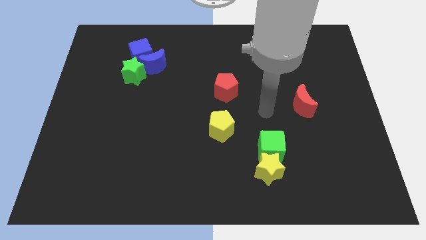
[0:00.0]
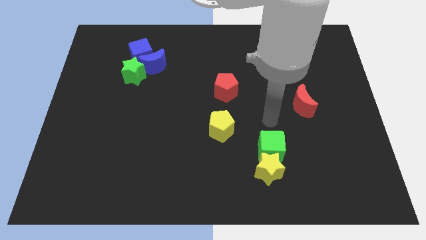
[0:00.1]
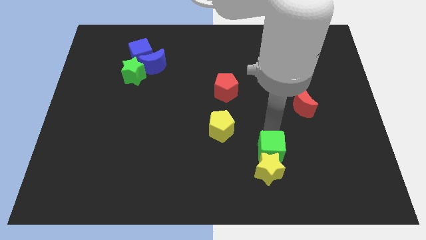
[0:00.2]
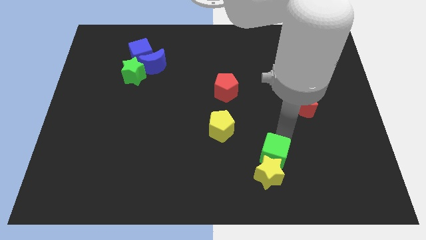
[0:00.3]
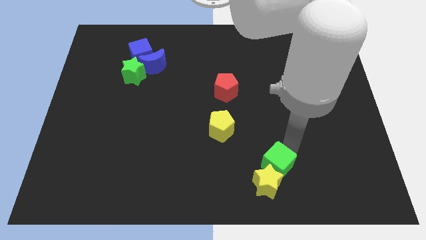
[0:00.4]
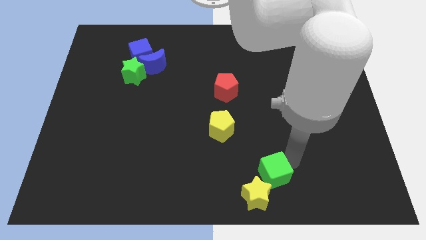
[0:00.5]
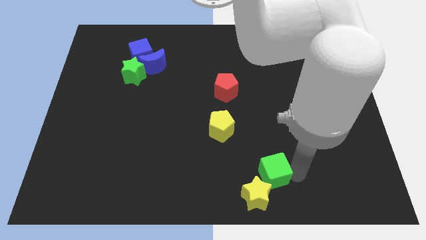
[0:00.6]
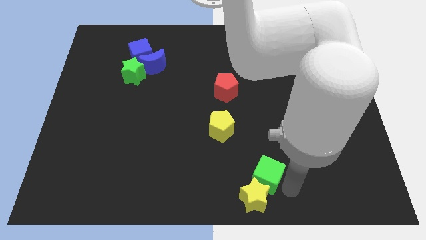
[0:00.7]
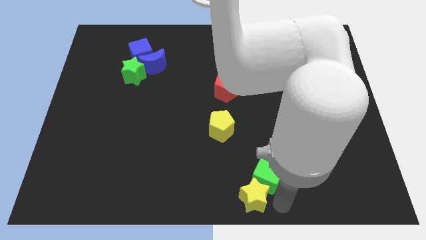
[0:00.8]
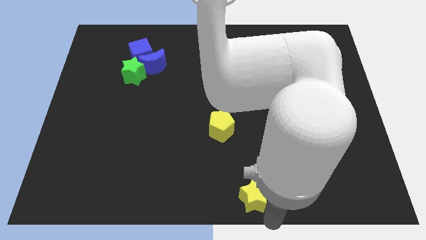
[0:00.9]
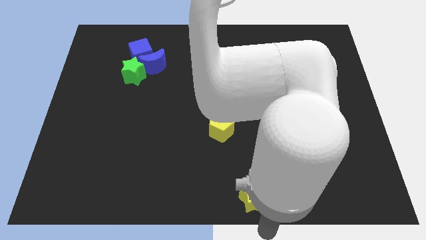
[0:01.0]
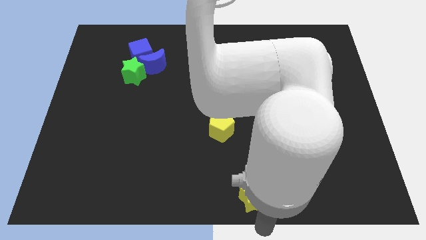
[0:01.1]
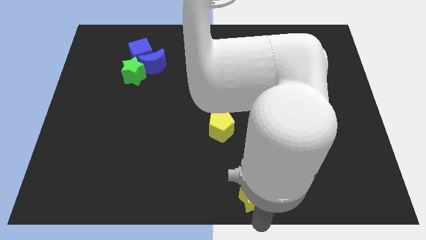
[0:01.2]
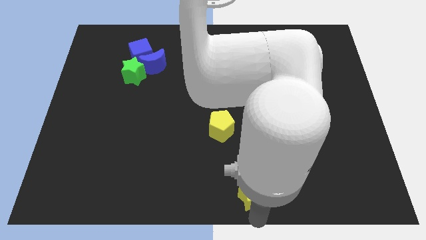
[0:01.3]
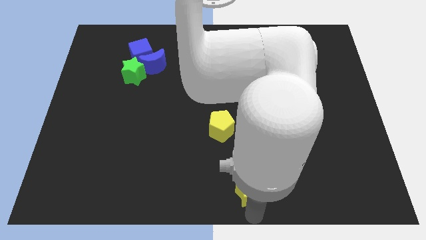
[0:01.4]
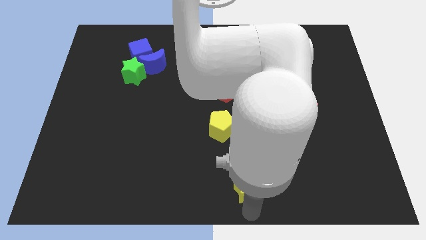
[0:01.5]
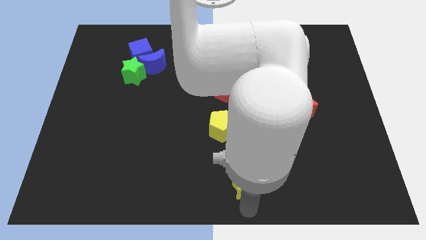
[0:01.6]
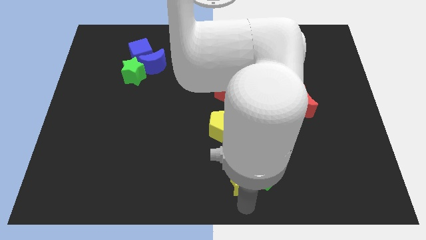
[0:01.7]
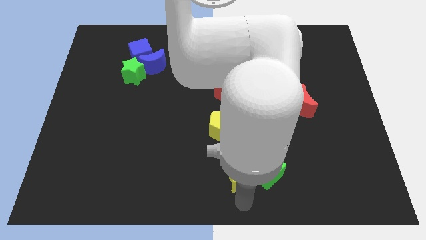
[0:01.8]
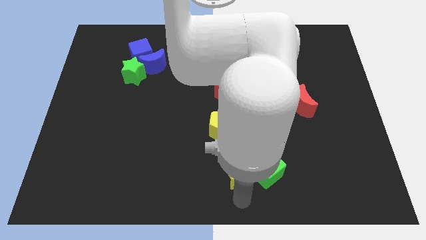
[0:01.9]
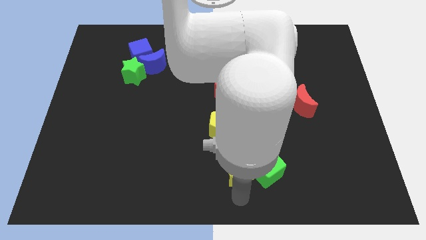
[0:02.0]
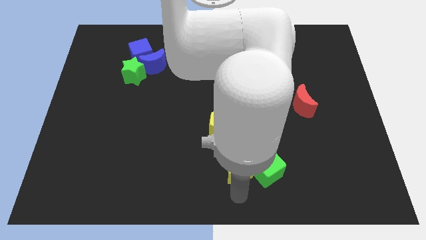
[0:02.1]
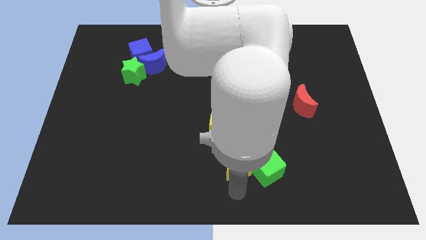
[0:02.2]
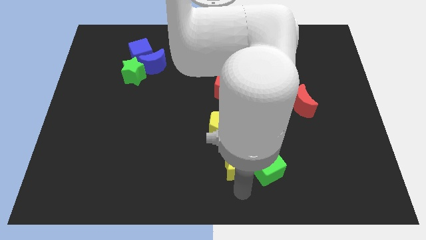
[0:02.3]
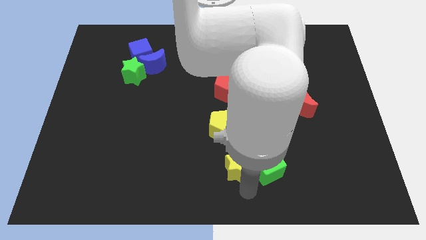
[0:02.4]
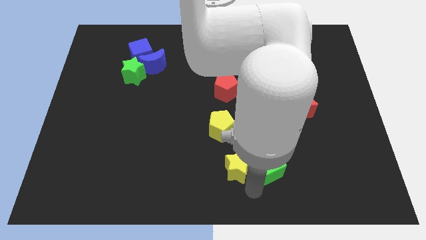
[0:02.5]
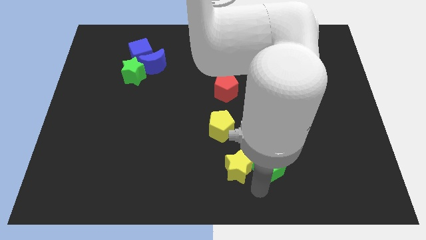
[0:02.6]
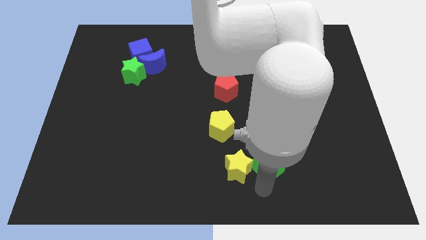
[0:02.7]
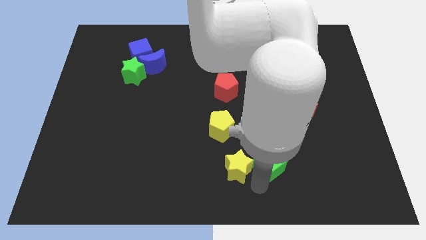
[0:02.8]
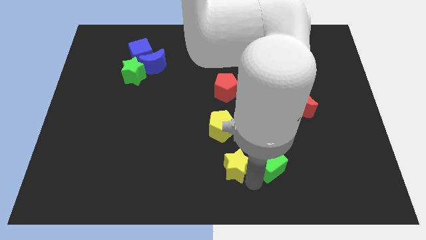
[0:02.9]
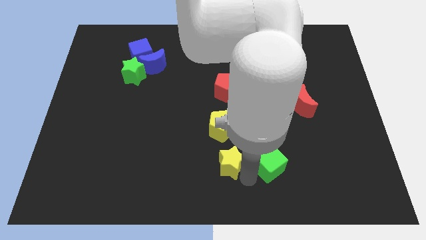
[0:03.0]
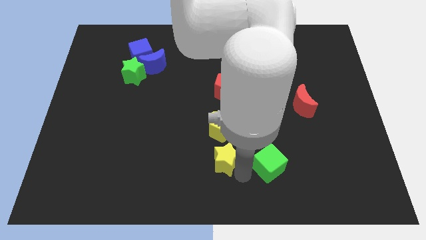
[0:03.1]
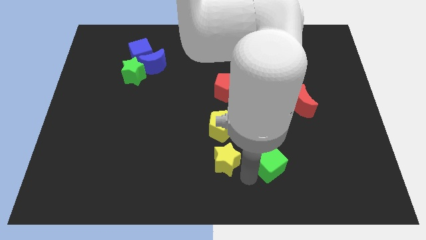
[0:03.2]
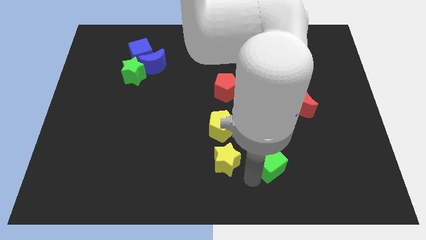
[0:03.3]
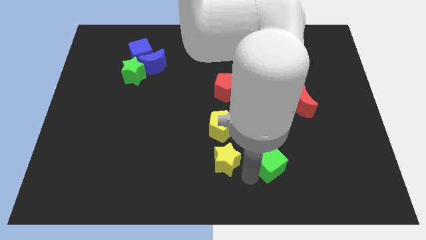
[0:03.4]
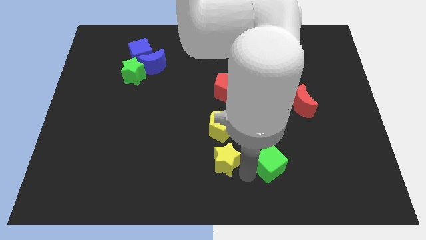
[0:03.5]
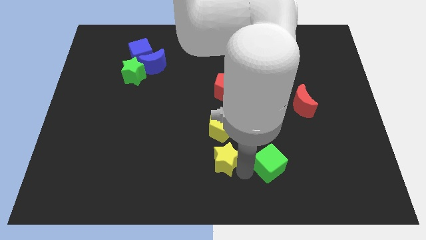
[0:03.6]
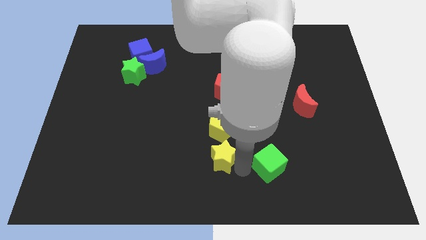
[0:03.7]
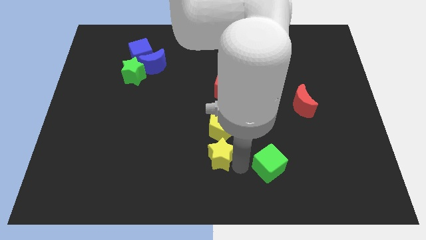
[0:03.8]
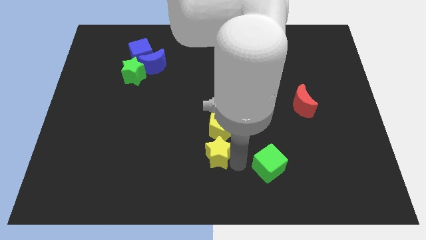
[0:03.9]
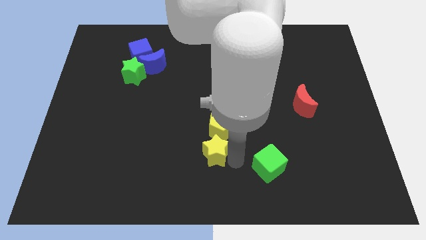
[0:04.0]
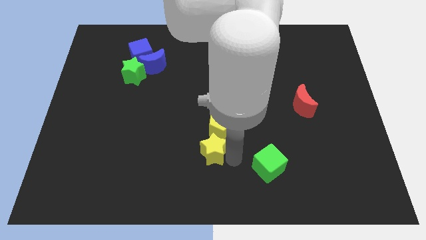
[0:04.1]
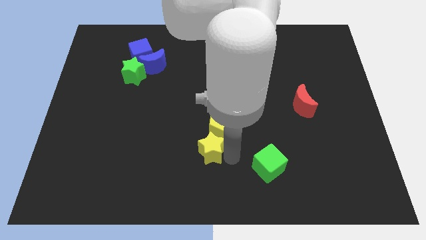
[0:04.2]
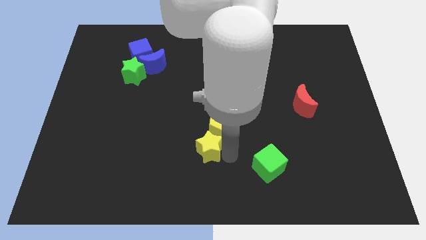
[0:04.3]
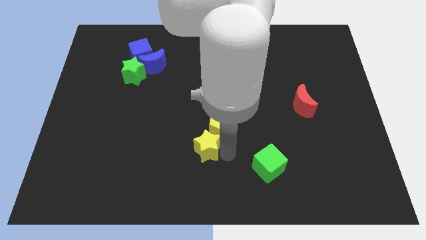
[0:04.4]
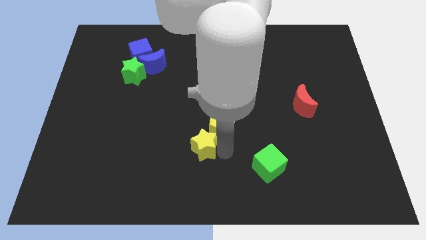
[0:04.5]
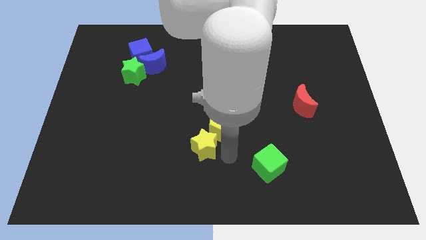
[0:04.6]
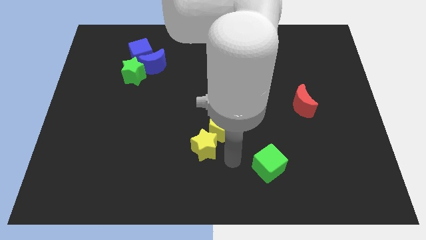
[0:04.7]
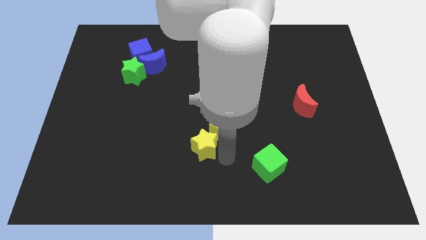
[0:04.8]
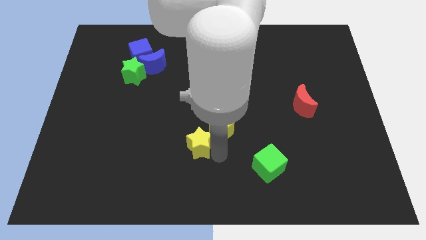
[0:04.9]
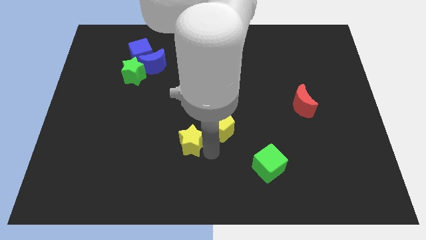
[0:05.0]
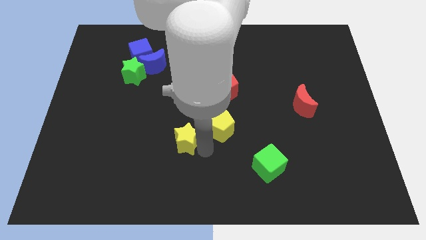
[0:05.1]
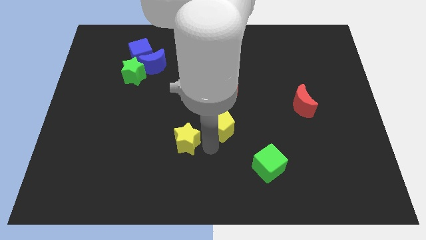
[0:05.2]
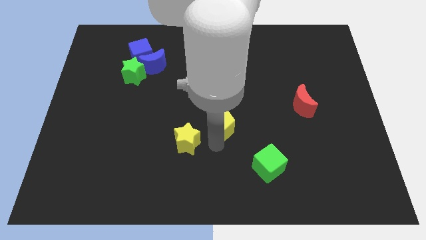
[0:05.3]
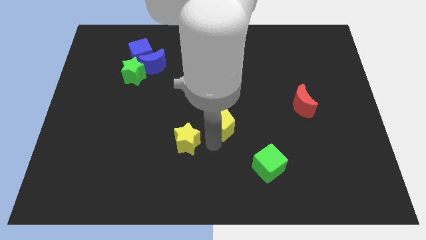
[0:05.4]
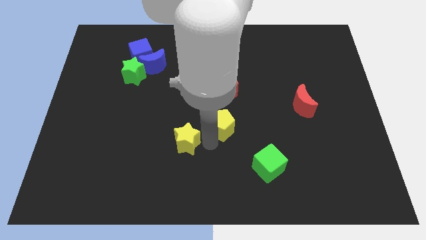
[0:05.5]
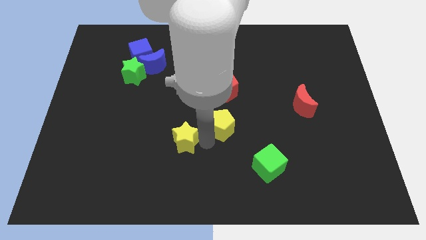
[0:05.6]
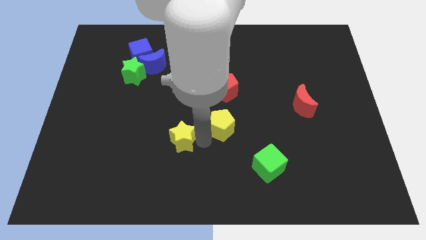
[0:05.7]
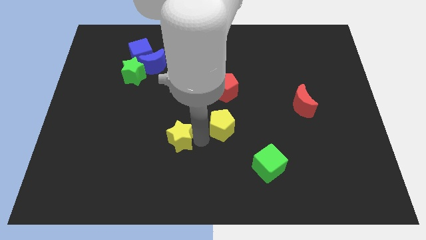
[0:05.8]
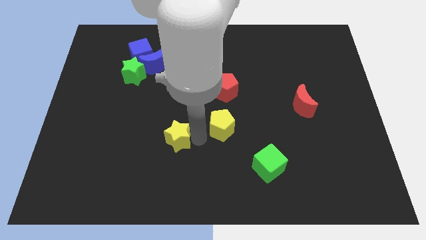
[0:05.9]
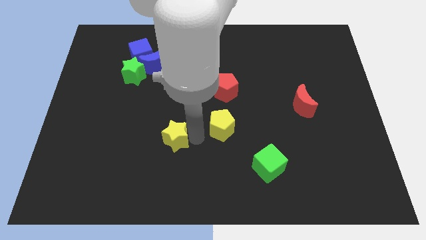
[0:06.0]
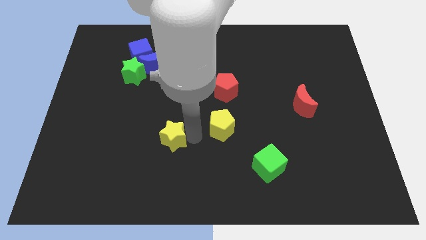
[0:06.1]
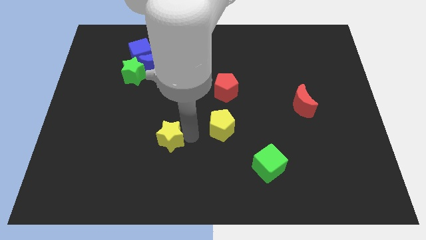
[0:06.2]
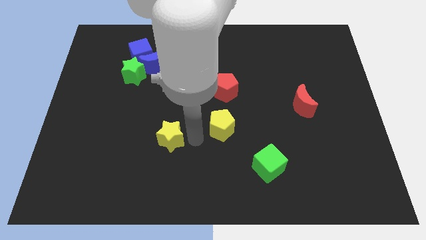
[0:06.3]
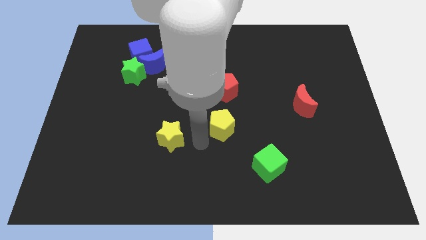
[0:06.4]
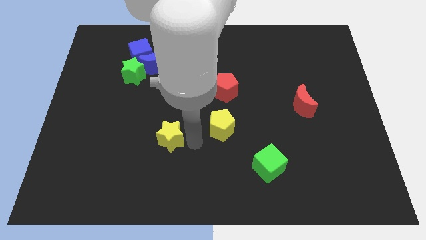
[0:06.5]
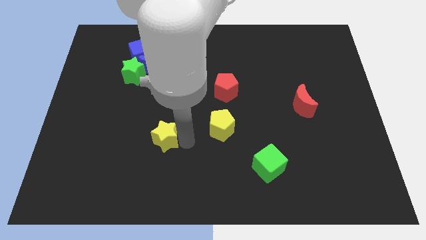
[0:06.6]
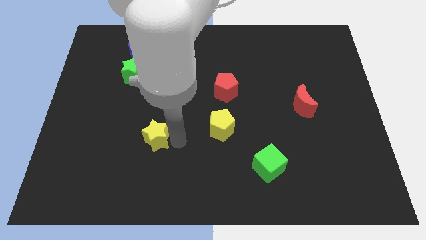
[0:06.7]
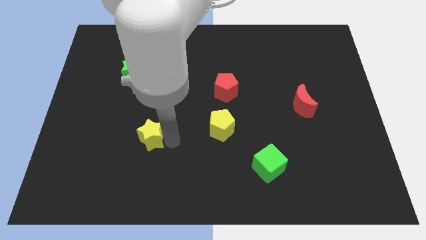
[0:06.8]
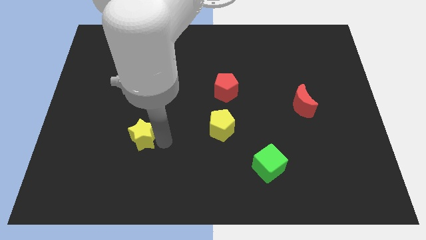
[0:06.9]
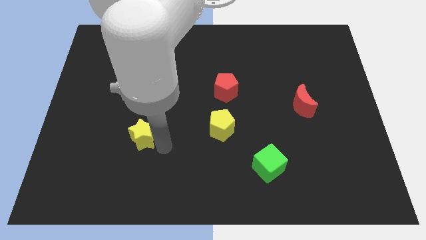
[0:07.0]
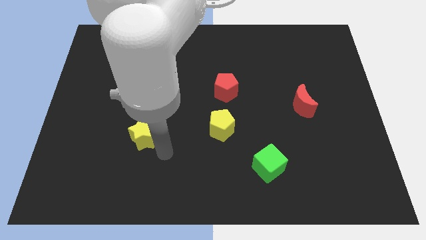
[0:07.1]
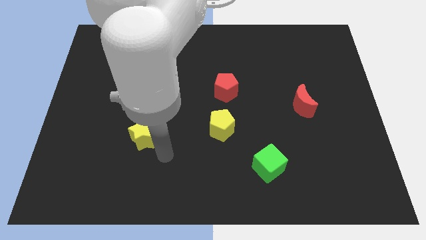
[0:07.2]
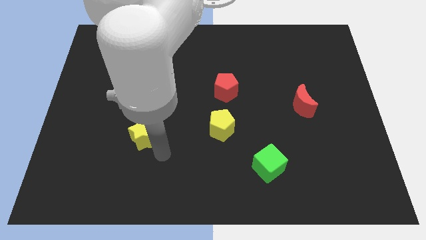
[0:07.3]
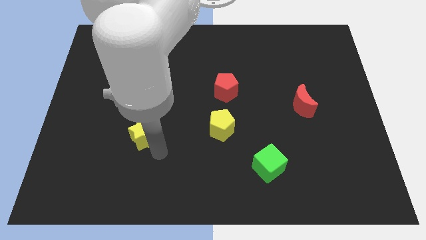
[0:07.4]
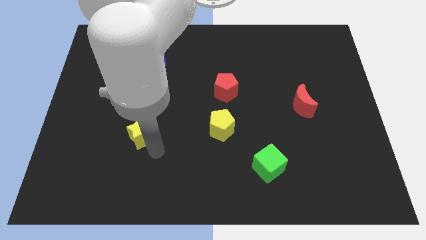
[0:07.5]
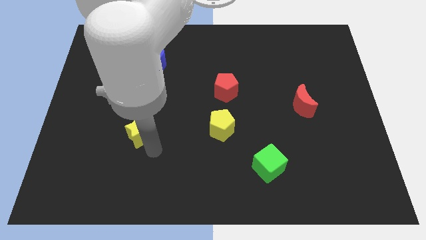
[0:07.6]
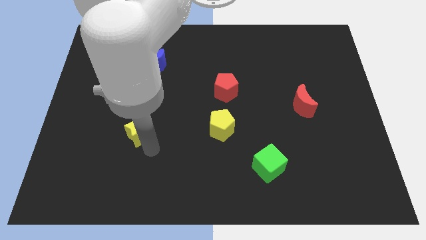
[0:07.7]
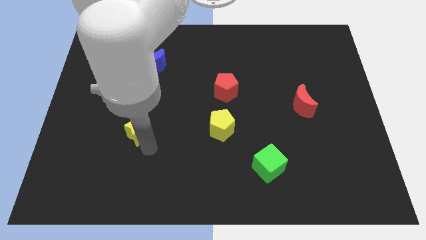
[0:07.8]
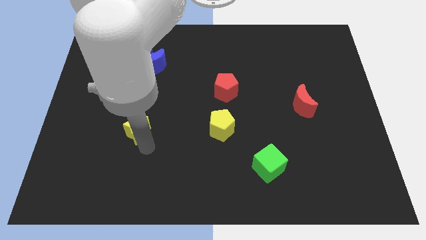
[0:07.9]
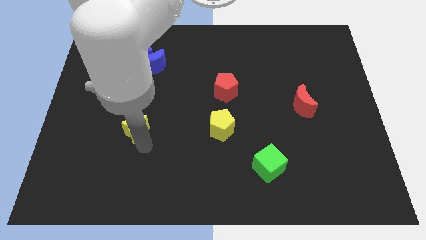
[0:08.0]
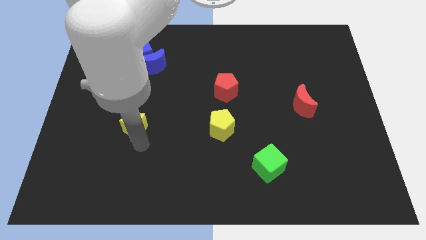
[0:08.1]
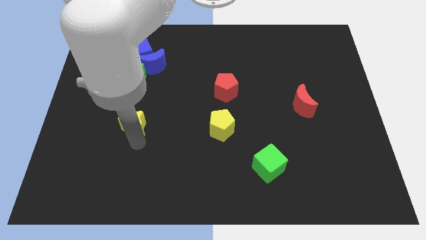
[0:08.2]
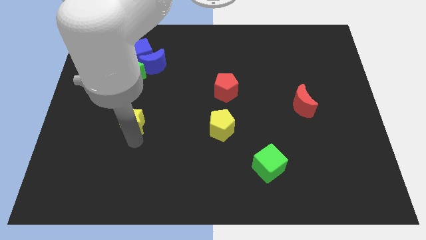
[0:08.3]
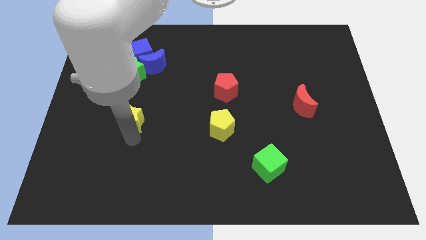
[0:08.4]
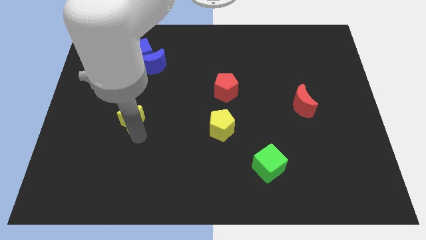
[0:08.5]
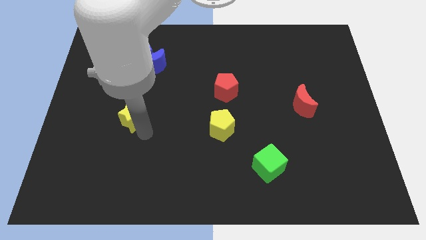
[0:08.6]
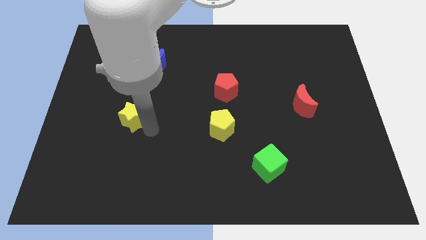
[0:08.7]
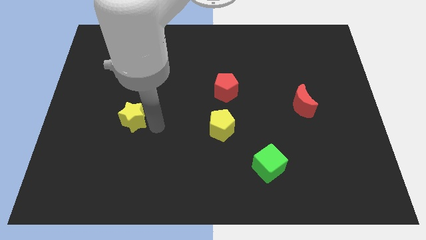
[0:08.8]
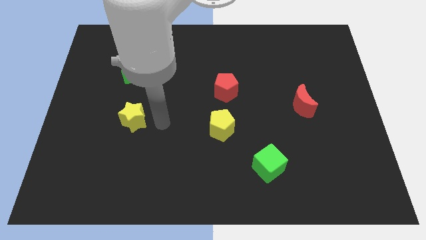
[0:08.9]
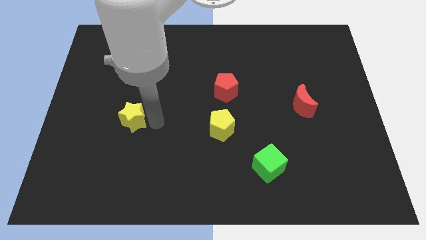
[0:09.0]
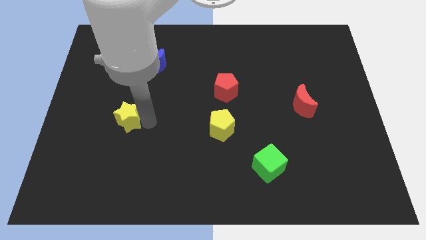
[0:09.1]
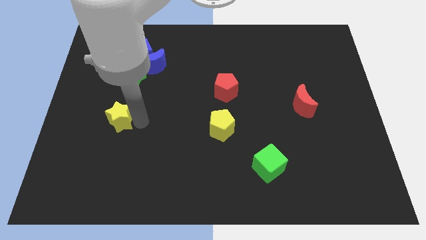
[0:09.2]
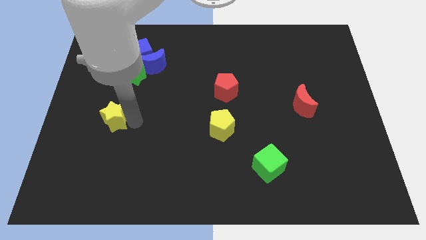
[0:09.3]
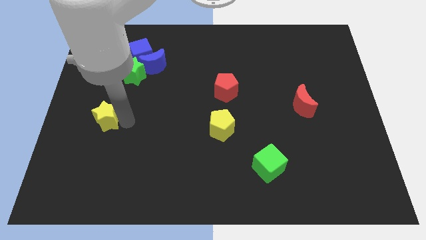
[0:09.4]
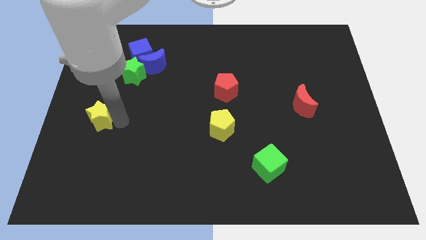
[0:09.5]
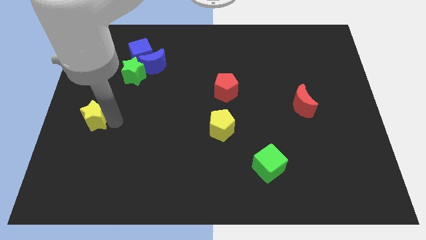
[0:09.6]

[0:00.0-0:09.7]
move the yellow star to the left side of the board
